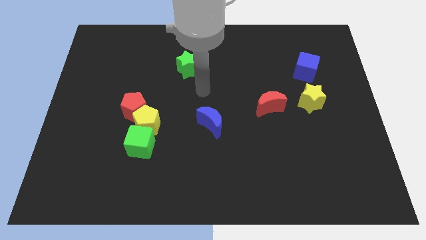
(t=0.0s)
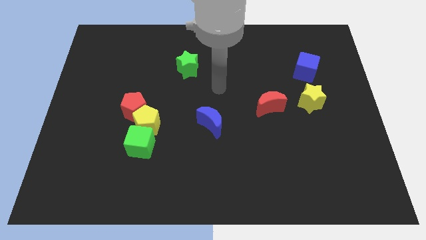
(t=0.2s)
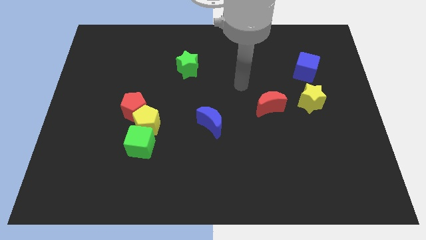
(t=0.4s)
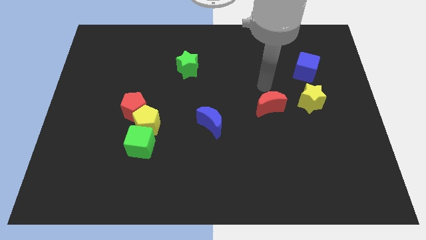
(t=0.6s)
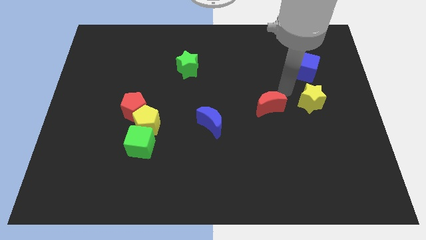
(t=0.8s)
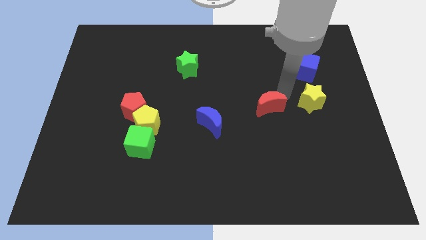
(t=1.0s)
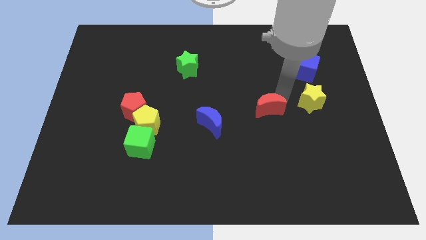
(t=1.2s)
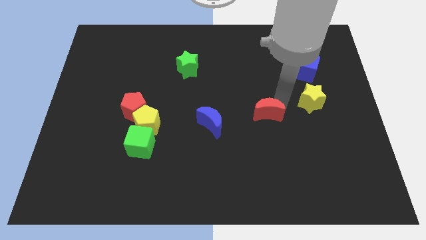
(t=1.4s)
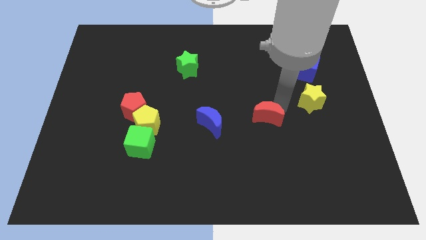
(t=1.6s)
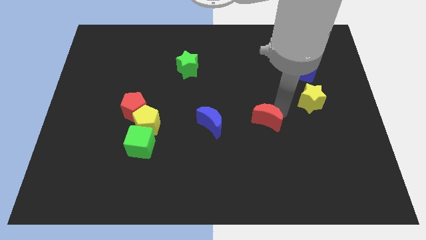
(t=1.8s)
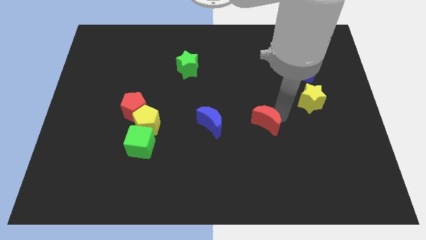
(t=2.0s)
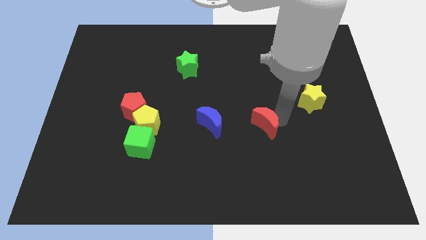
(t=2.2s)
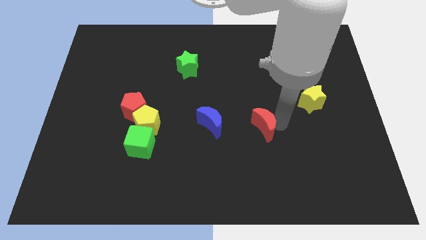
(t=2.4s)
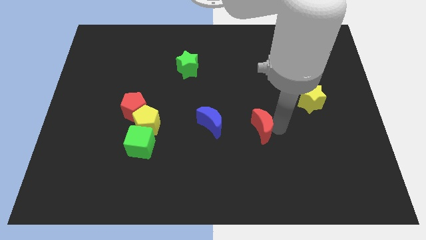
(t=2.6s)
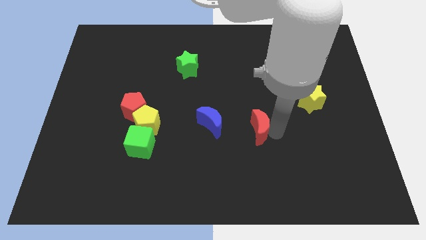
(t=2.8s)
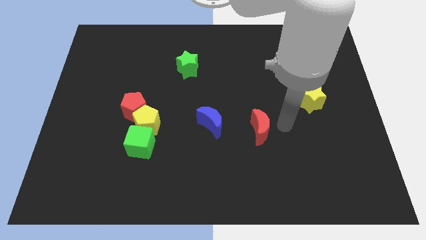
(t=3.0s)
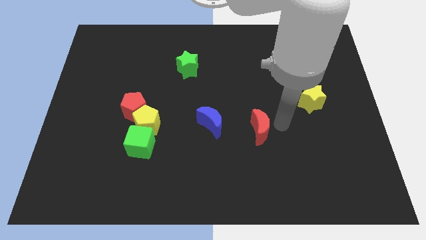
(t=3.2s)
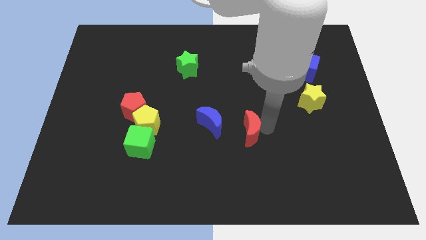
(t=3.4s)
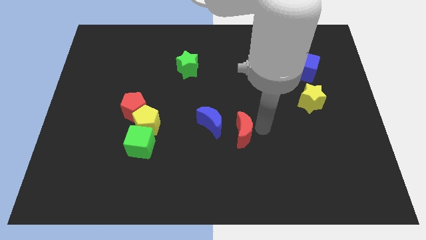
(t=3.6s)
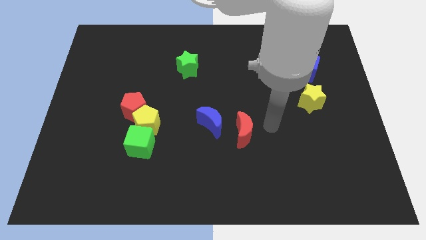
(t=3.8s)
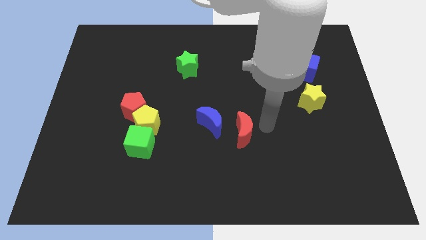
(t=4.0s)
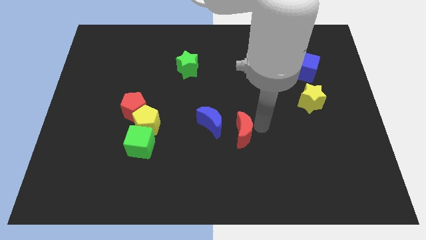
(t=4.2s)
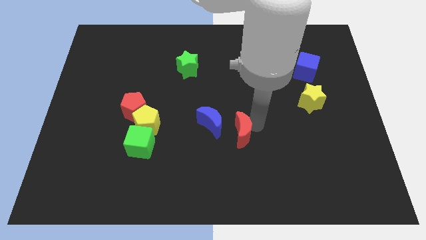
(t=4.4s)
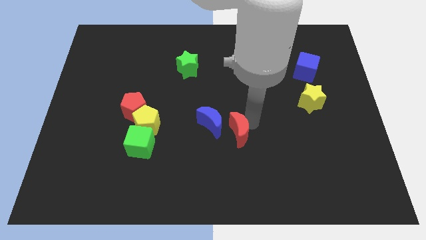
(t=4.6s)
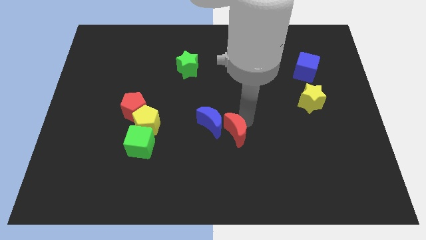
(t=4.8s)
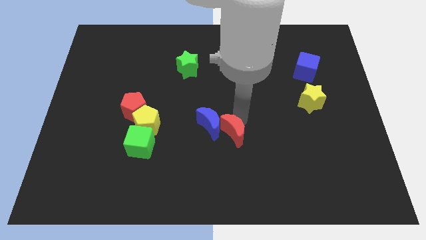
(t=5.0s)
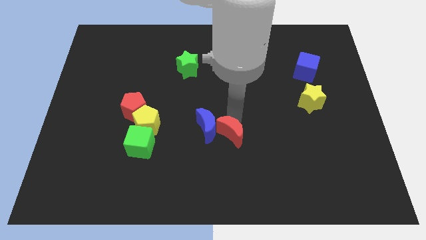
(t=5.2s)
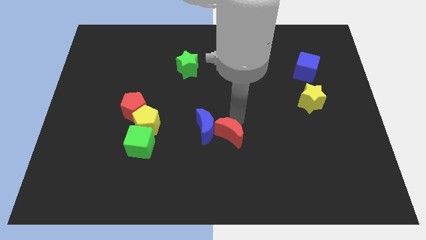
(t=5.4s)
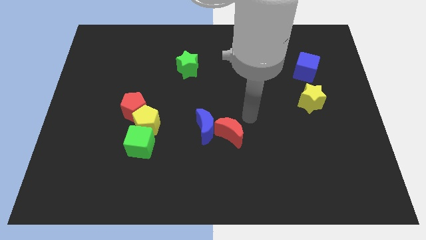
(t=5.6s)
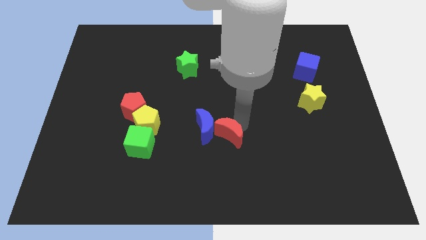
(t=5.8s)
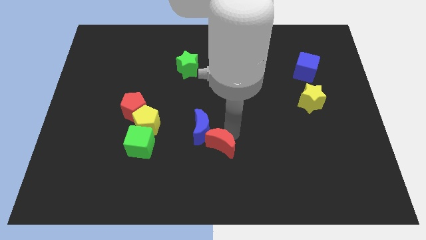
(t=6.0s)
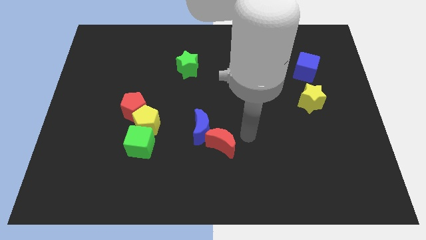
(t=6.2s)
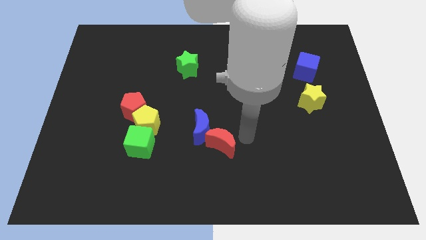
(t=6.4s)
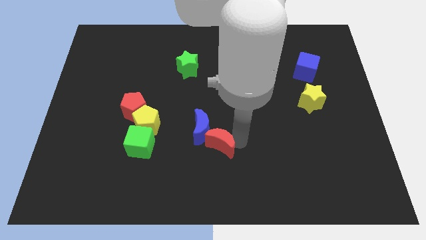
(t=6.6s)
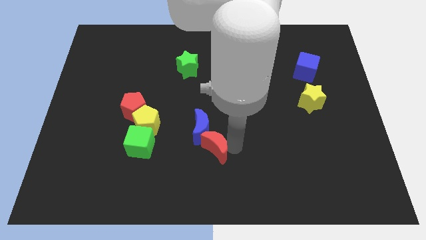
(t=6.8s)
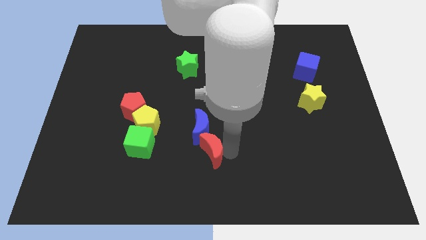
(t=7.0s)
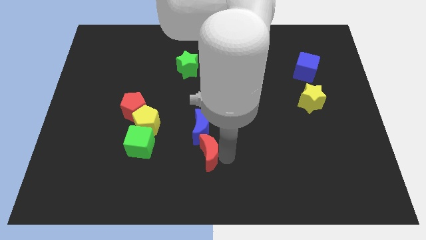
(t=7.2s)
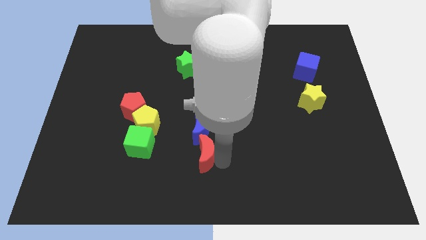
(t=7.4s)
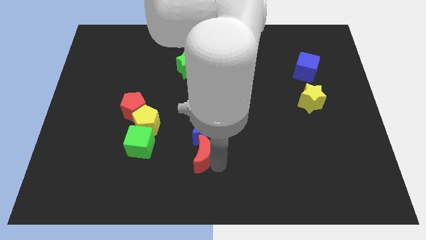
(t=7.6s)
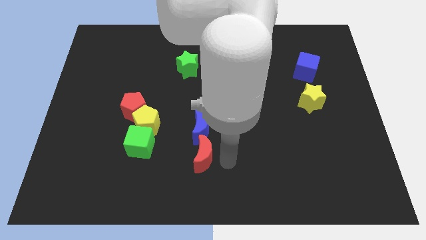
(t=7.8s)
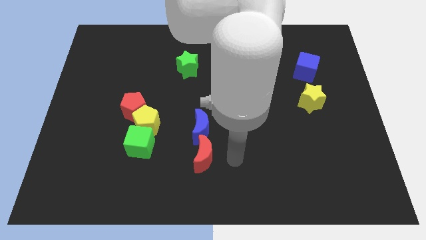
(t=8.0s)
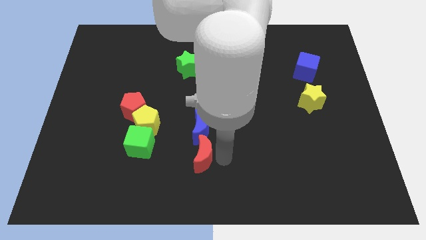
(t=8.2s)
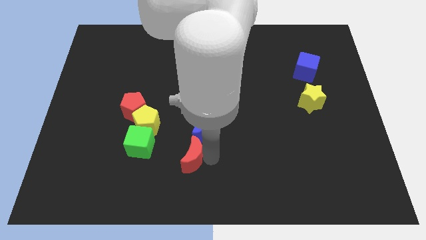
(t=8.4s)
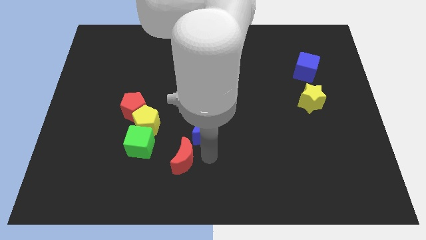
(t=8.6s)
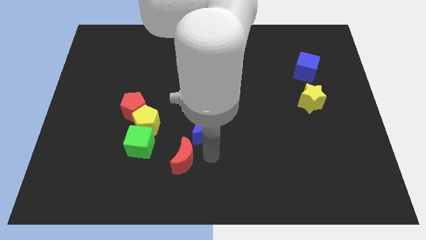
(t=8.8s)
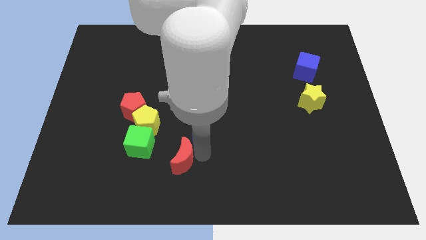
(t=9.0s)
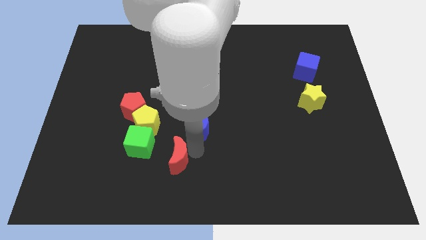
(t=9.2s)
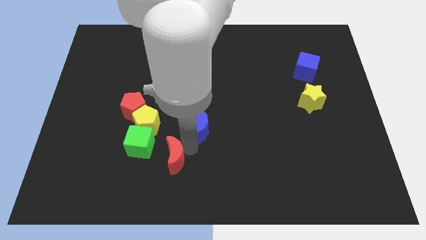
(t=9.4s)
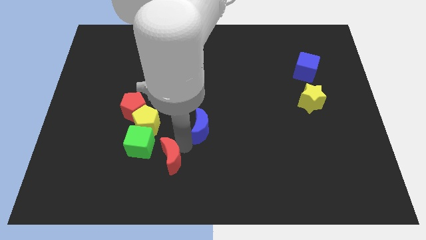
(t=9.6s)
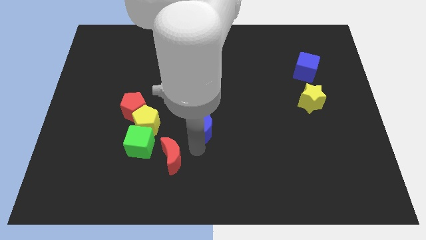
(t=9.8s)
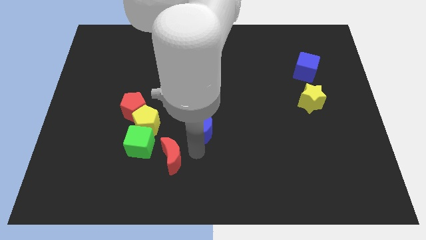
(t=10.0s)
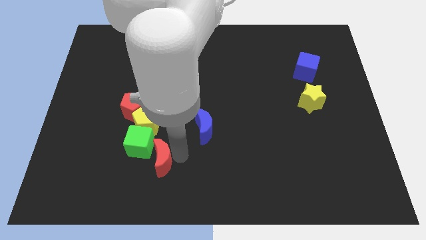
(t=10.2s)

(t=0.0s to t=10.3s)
slide the red moon to the bottom of the yellow pentagon

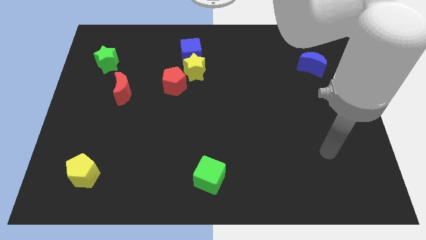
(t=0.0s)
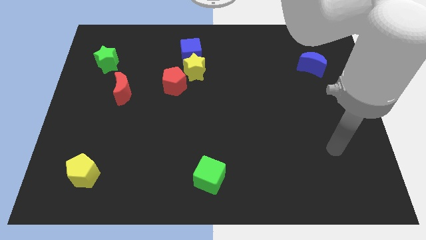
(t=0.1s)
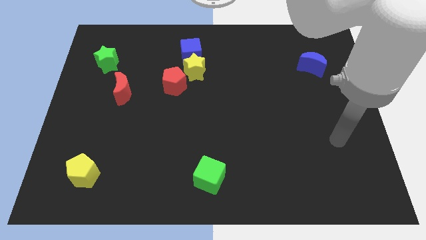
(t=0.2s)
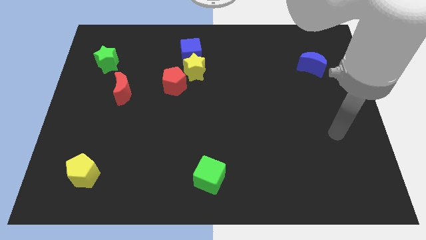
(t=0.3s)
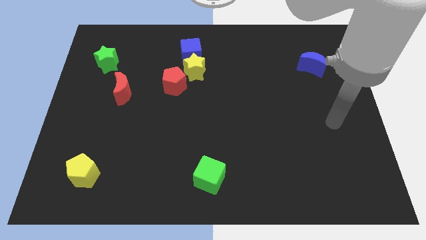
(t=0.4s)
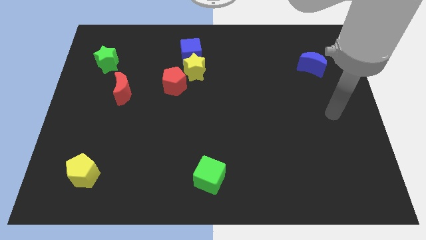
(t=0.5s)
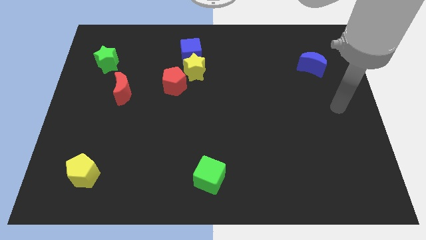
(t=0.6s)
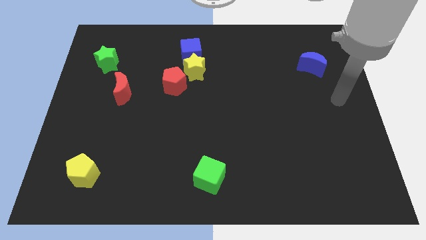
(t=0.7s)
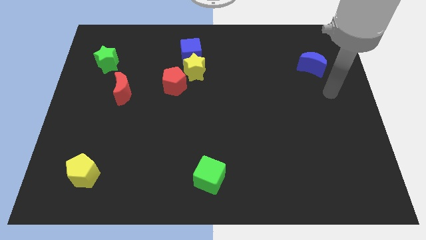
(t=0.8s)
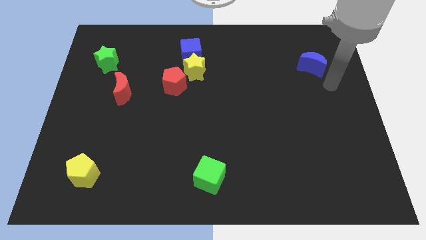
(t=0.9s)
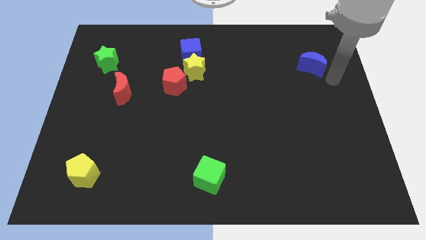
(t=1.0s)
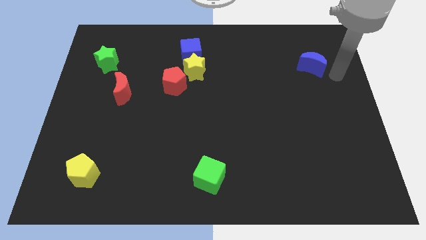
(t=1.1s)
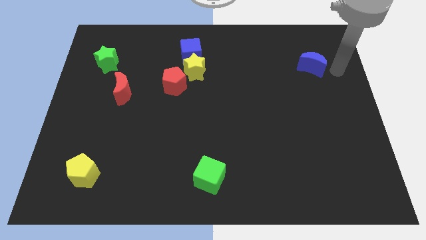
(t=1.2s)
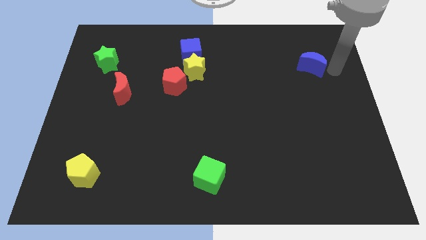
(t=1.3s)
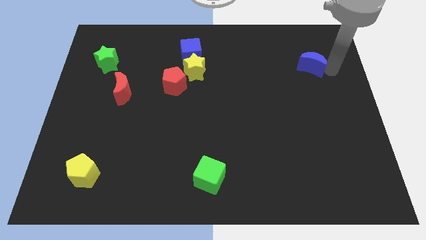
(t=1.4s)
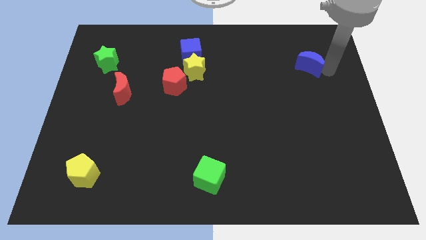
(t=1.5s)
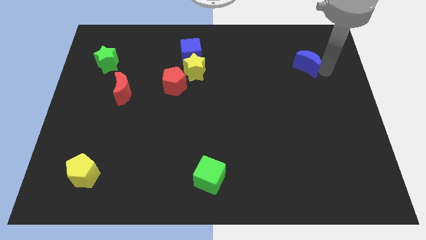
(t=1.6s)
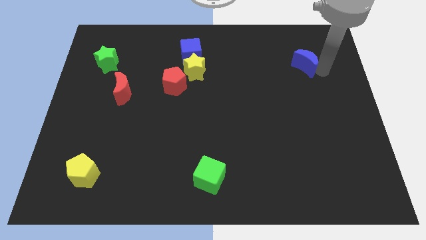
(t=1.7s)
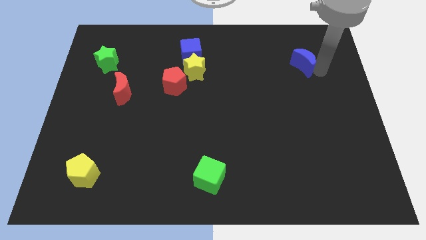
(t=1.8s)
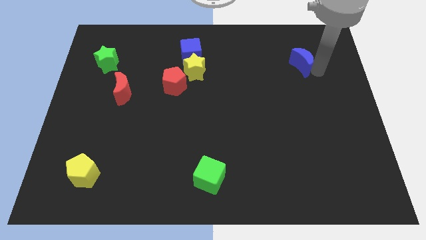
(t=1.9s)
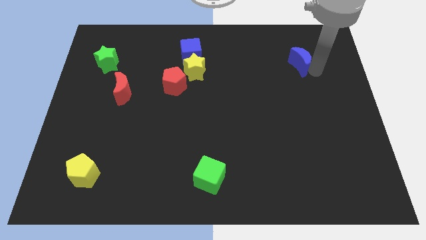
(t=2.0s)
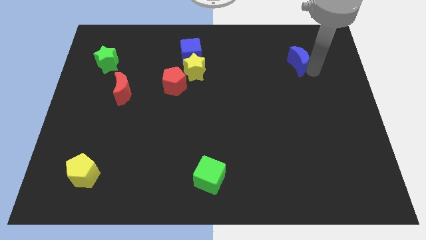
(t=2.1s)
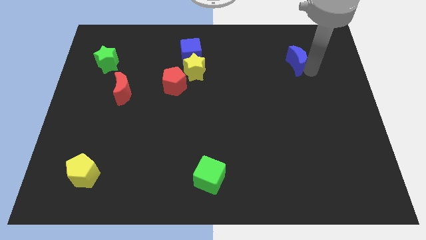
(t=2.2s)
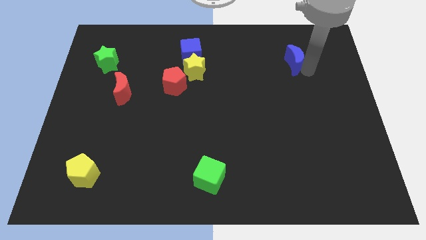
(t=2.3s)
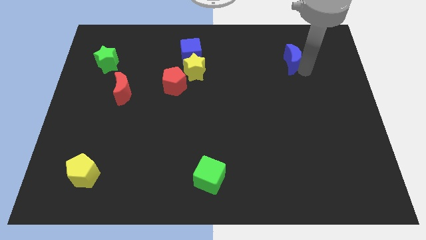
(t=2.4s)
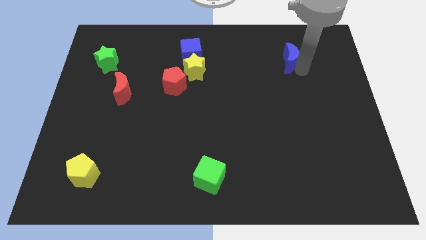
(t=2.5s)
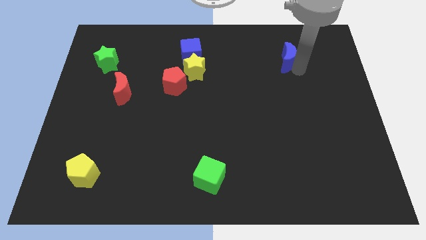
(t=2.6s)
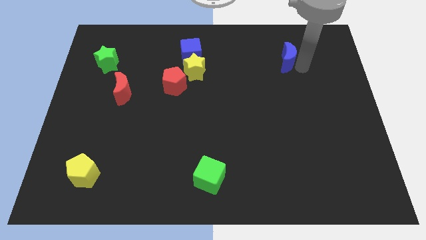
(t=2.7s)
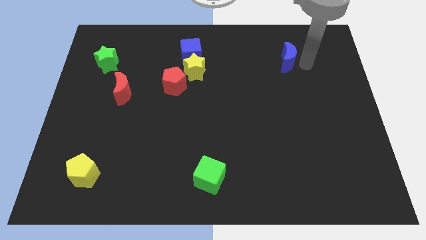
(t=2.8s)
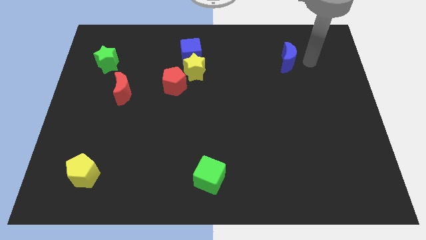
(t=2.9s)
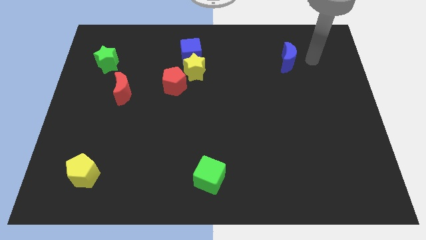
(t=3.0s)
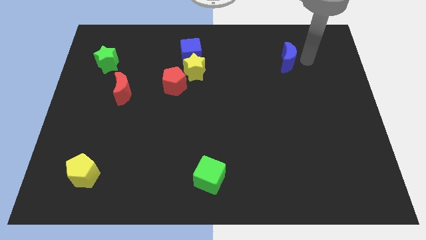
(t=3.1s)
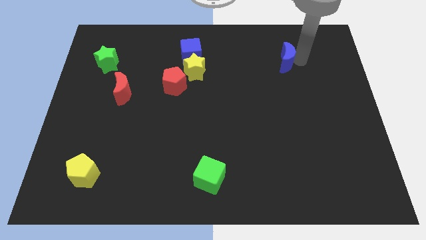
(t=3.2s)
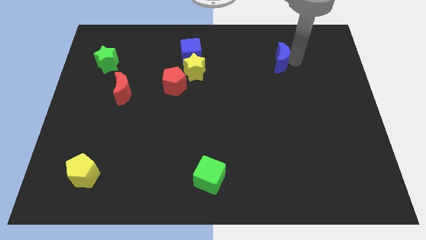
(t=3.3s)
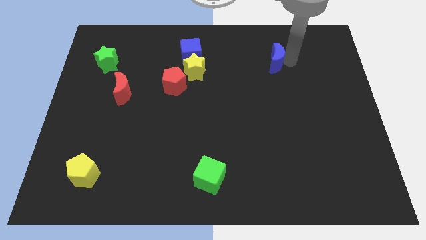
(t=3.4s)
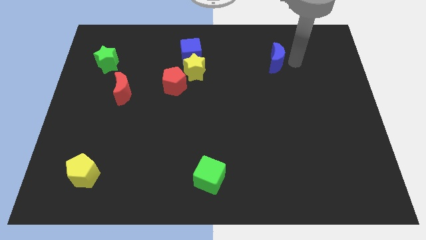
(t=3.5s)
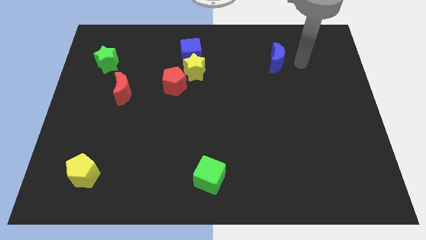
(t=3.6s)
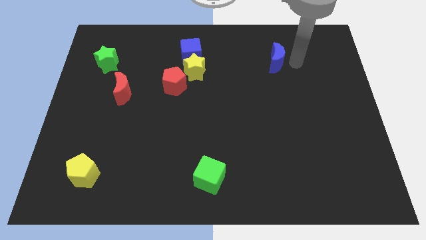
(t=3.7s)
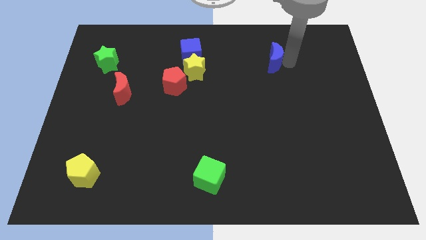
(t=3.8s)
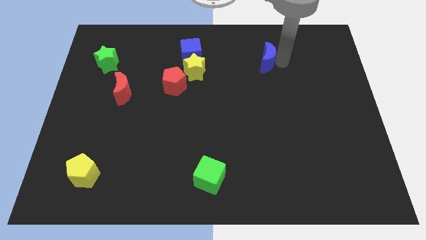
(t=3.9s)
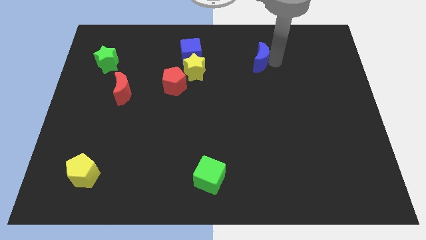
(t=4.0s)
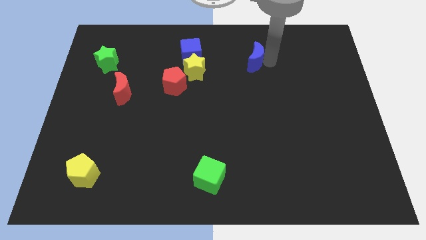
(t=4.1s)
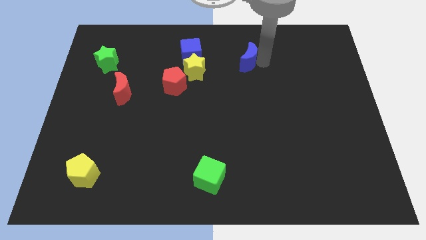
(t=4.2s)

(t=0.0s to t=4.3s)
put the blue moon right of the blue cube
